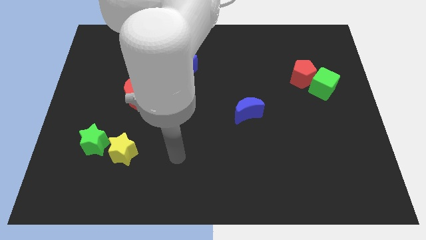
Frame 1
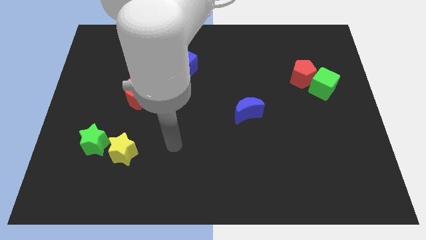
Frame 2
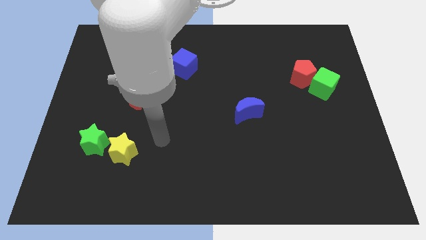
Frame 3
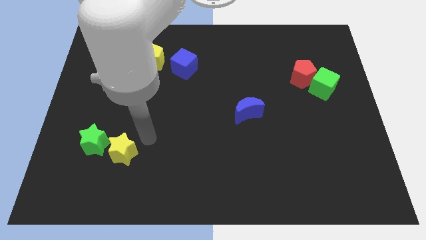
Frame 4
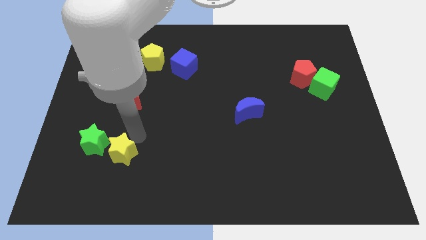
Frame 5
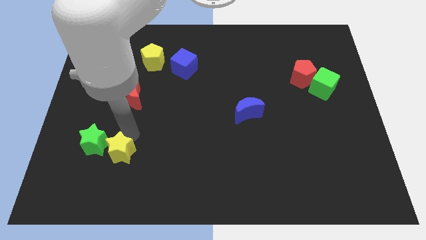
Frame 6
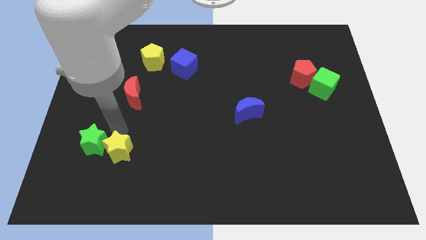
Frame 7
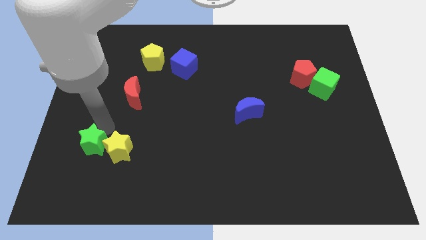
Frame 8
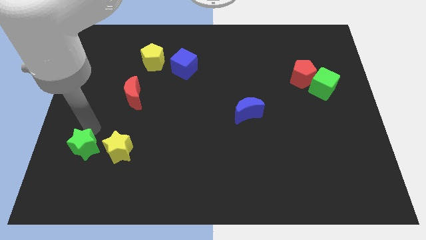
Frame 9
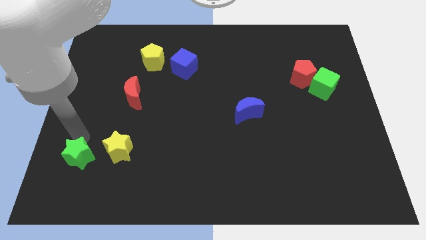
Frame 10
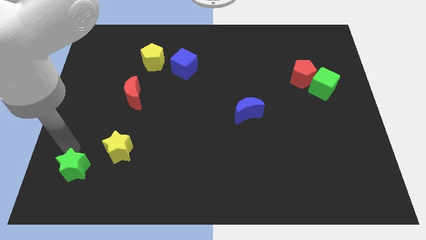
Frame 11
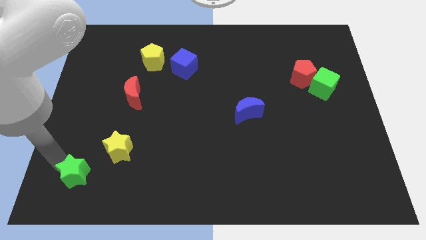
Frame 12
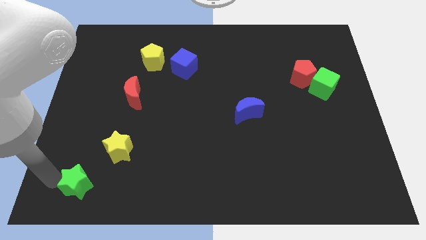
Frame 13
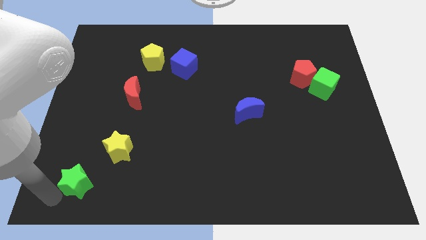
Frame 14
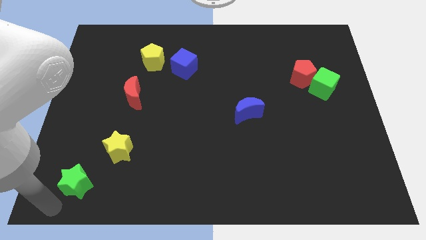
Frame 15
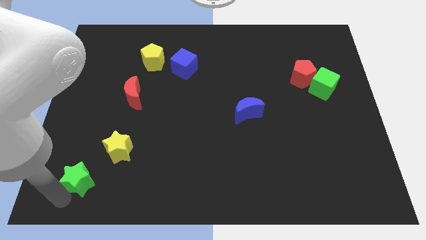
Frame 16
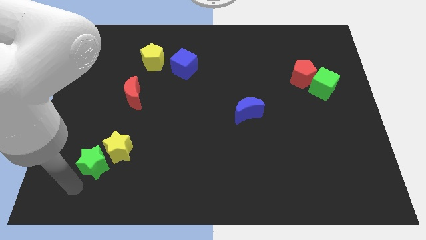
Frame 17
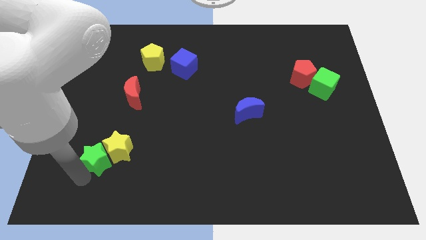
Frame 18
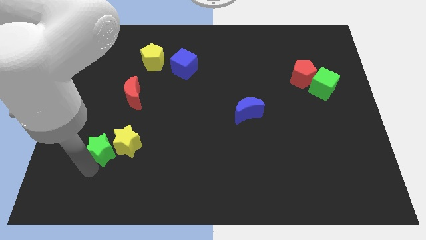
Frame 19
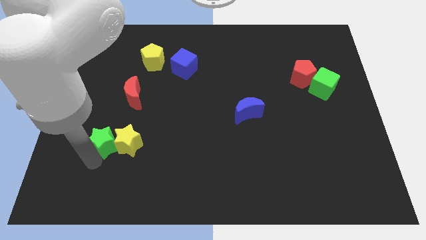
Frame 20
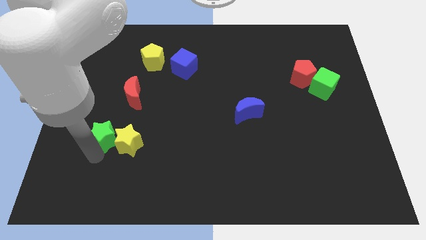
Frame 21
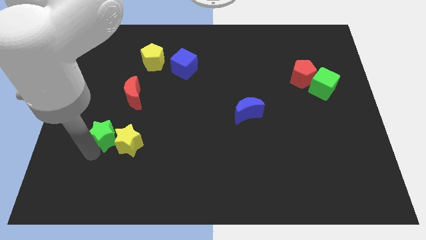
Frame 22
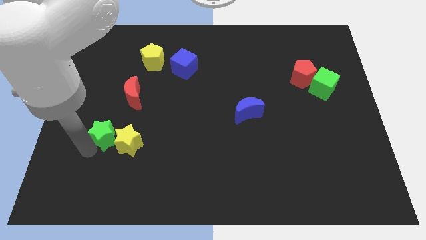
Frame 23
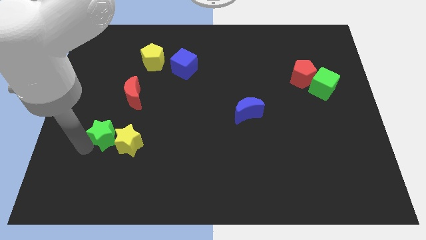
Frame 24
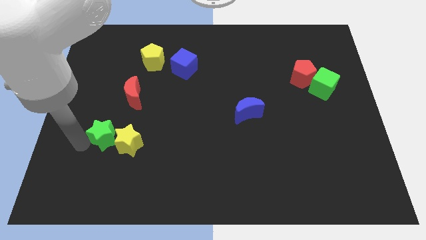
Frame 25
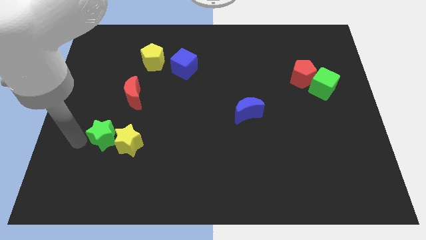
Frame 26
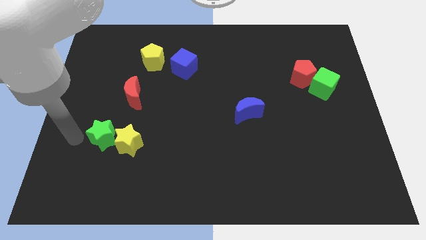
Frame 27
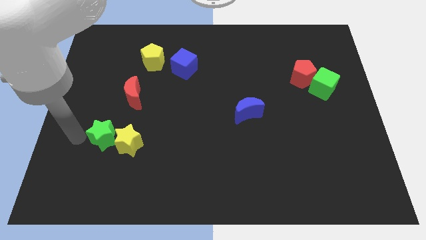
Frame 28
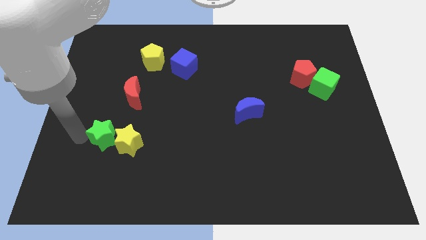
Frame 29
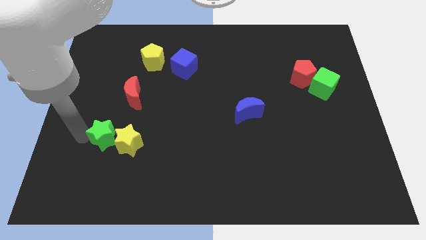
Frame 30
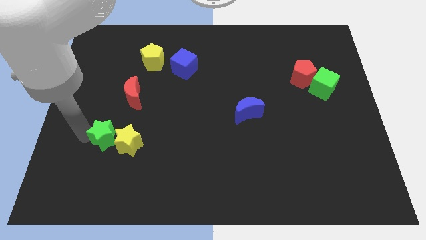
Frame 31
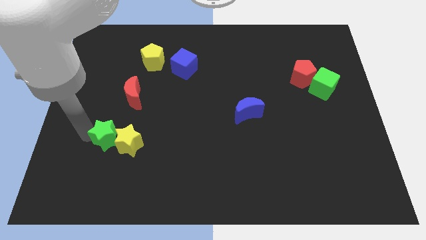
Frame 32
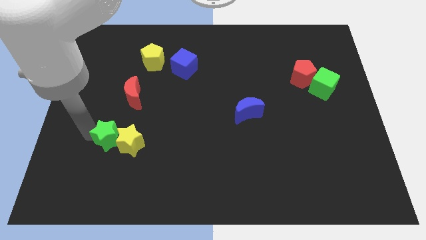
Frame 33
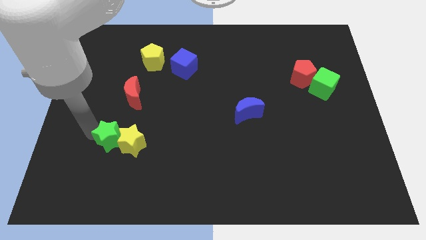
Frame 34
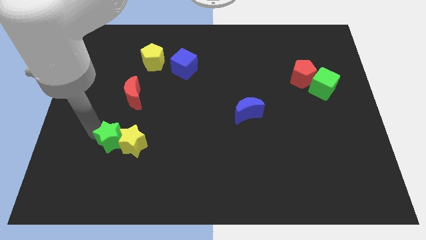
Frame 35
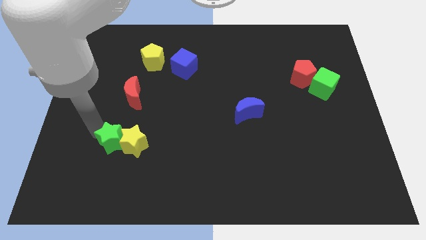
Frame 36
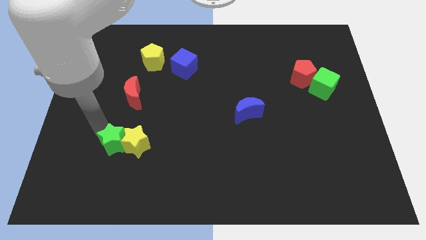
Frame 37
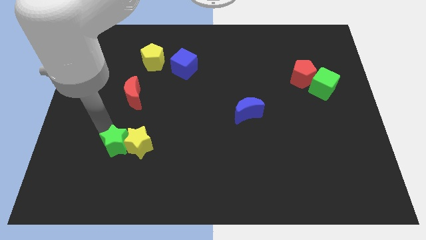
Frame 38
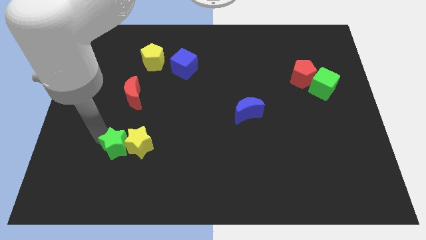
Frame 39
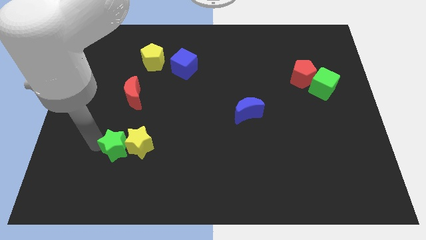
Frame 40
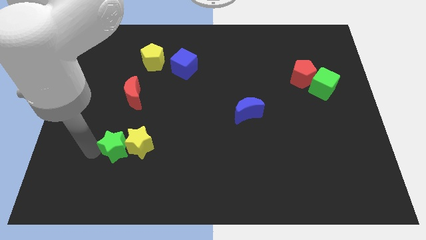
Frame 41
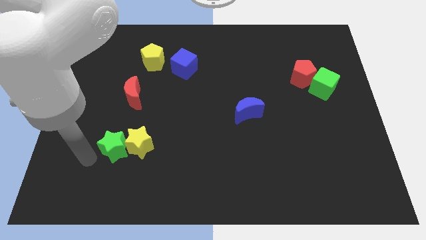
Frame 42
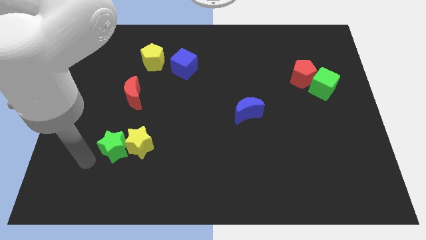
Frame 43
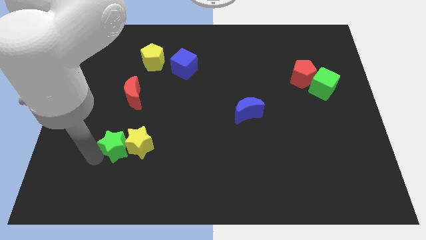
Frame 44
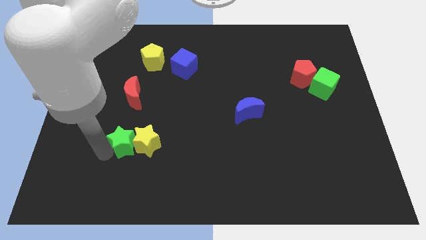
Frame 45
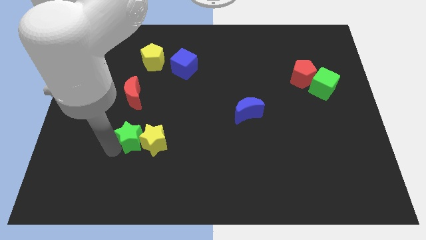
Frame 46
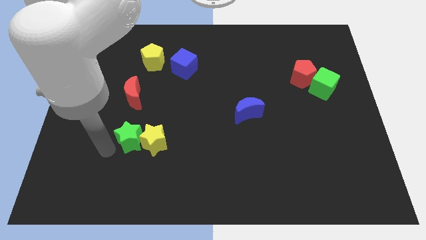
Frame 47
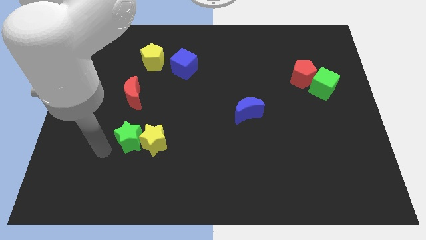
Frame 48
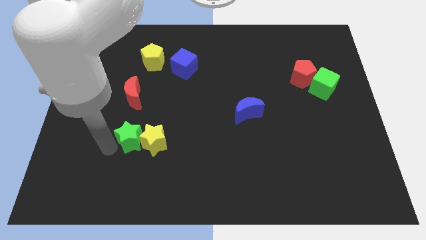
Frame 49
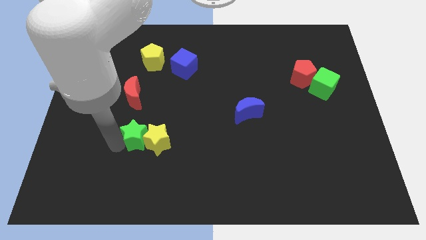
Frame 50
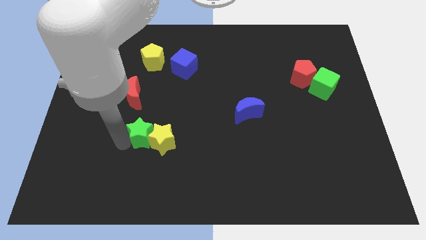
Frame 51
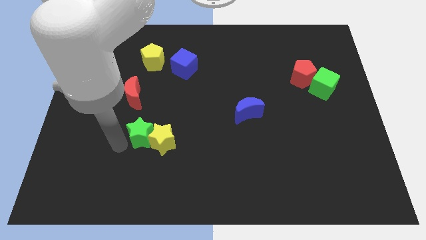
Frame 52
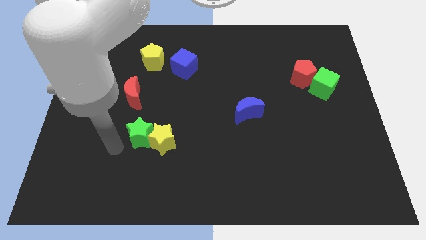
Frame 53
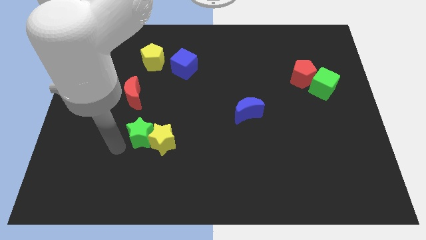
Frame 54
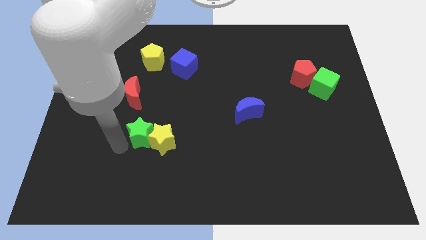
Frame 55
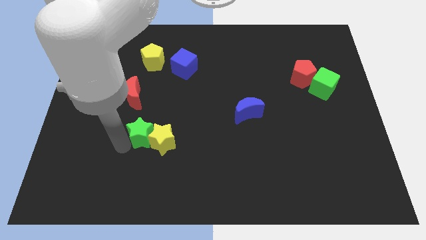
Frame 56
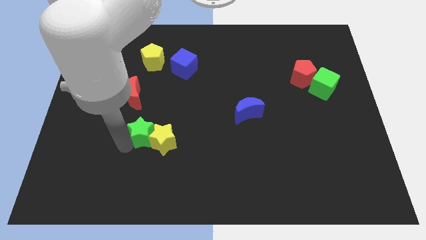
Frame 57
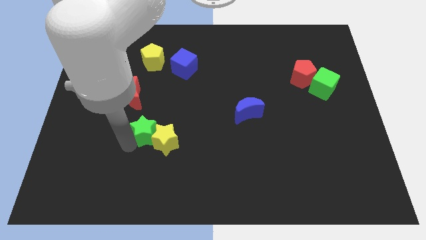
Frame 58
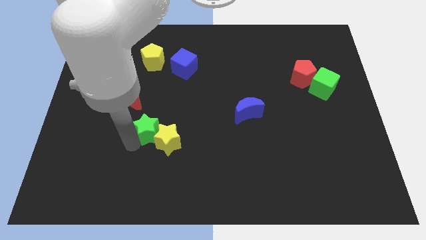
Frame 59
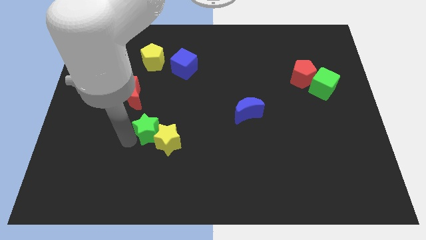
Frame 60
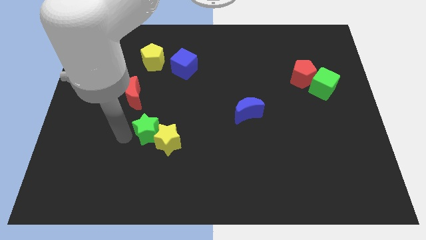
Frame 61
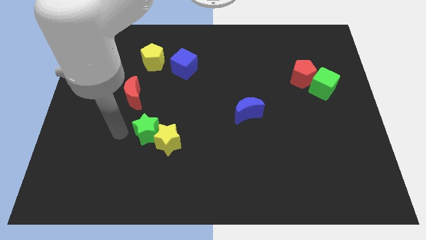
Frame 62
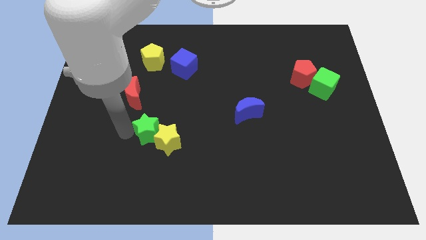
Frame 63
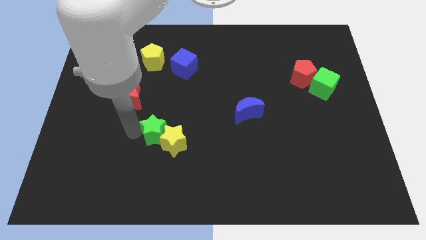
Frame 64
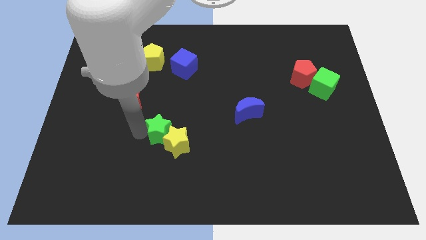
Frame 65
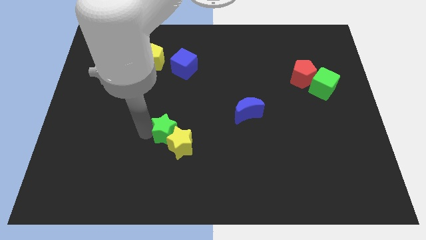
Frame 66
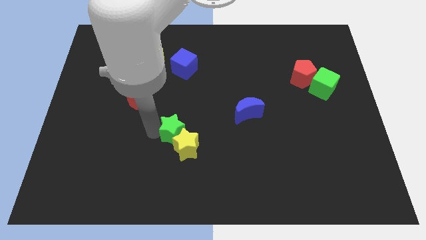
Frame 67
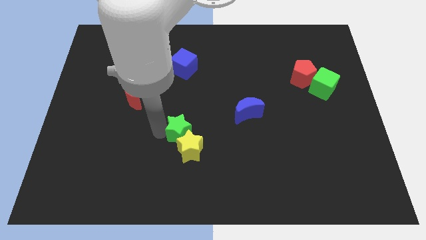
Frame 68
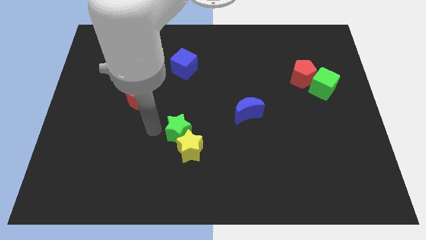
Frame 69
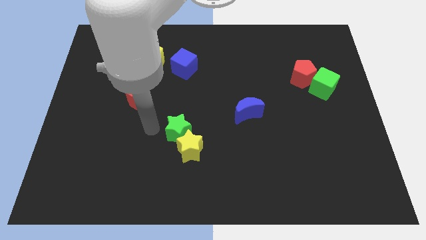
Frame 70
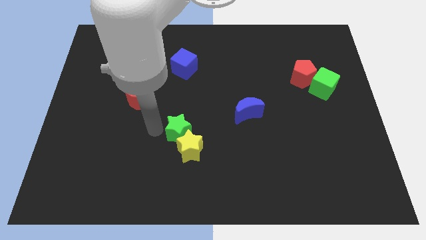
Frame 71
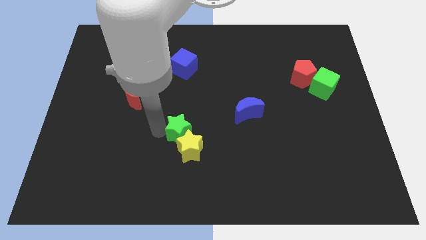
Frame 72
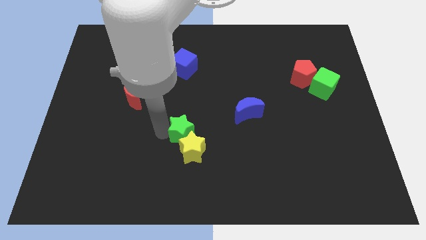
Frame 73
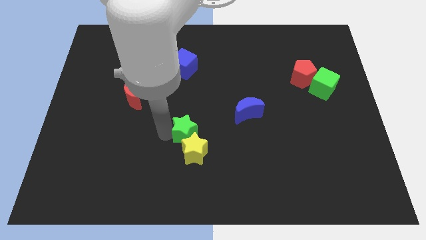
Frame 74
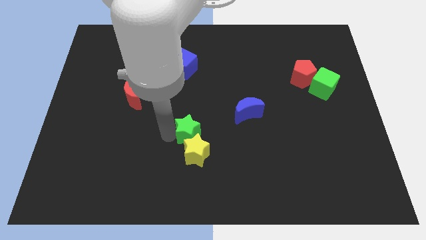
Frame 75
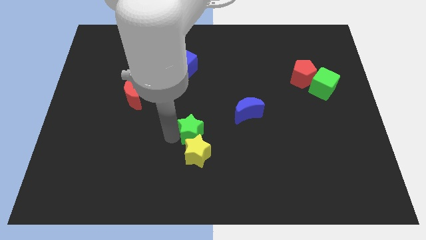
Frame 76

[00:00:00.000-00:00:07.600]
slide the green star to the right
